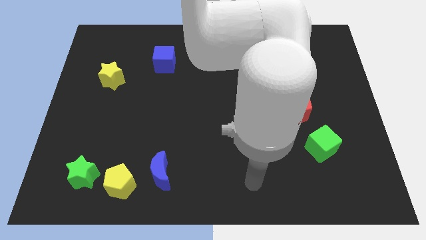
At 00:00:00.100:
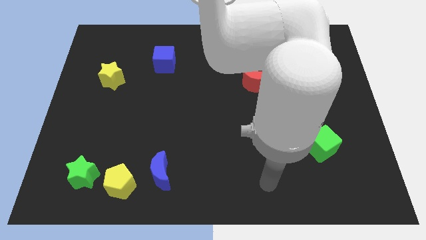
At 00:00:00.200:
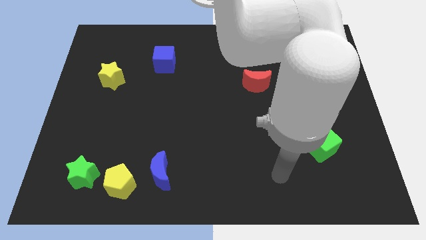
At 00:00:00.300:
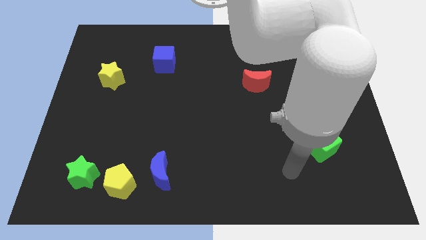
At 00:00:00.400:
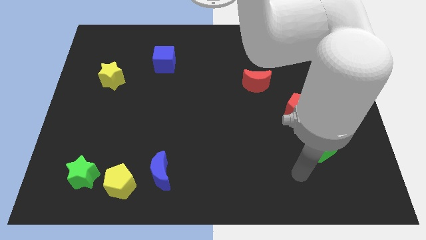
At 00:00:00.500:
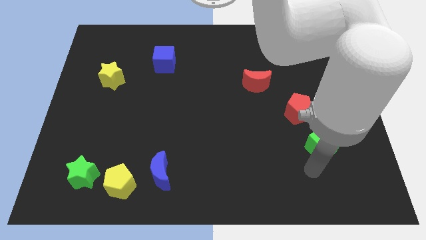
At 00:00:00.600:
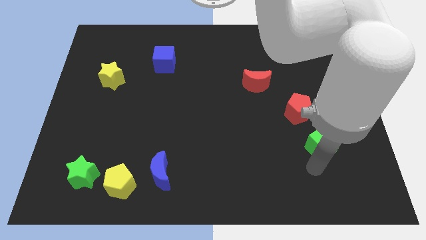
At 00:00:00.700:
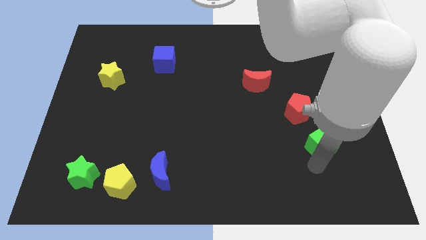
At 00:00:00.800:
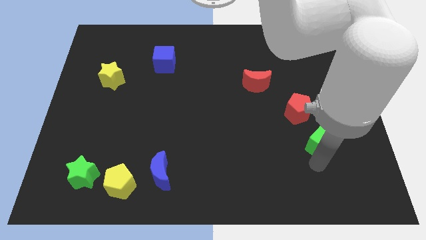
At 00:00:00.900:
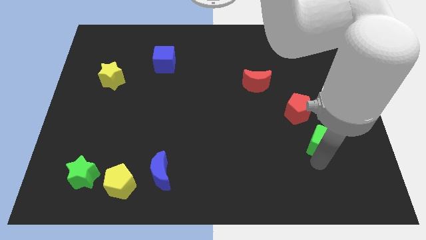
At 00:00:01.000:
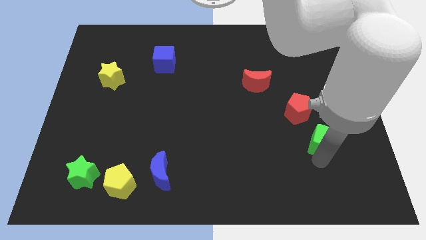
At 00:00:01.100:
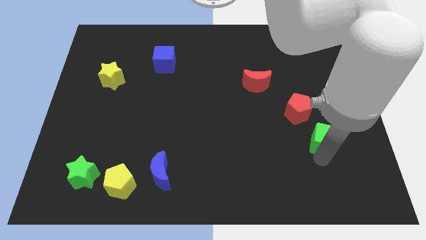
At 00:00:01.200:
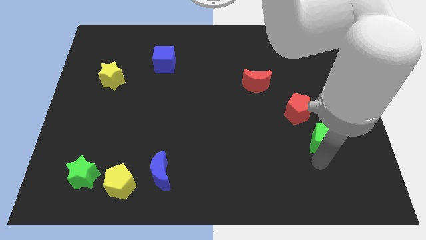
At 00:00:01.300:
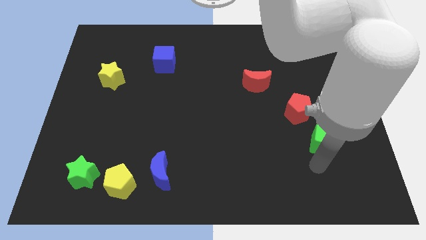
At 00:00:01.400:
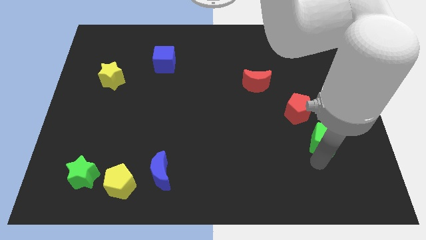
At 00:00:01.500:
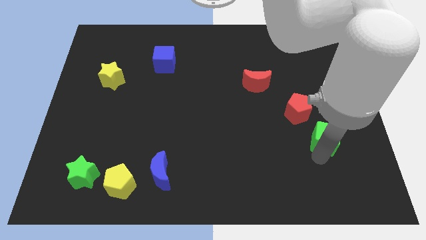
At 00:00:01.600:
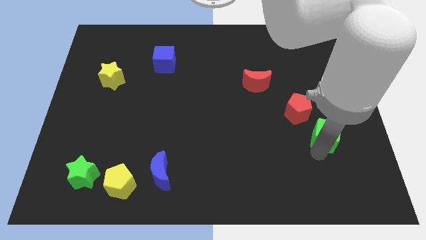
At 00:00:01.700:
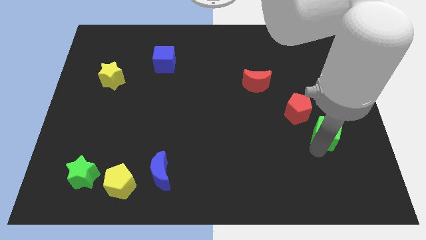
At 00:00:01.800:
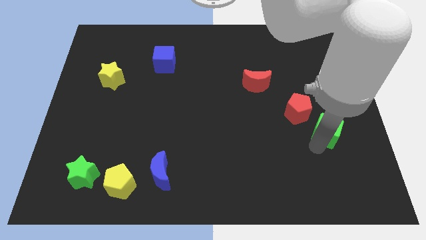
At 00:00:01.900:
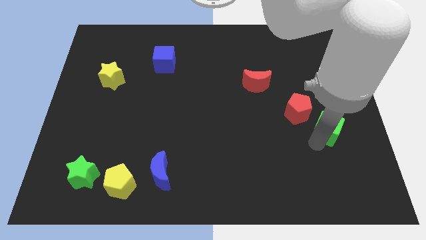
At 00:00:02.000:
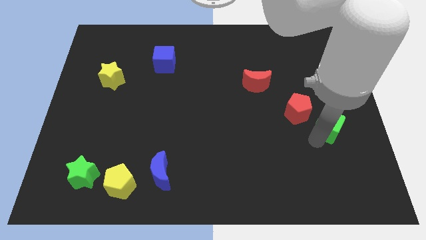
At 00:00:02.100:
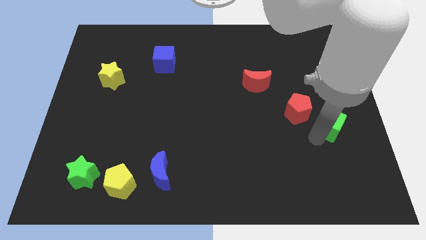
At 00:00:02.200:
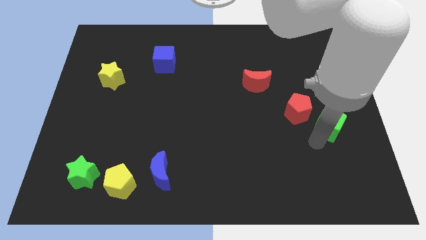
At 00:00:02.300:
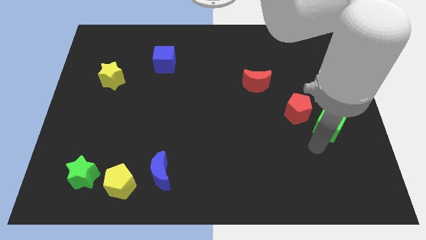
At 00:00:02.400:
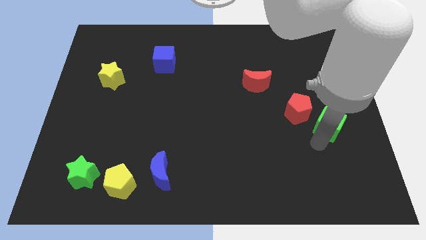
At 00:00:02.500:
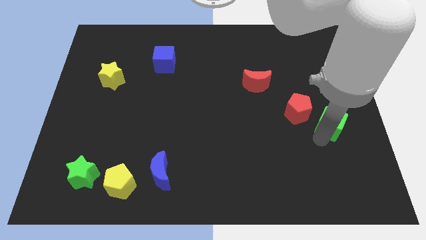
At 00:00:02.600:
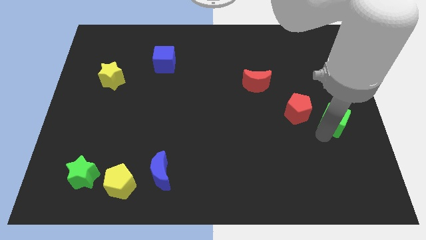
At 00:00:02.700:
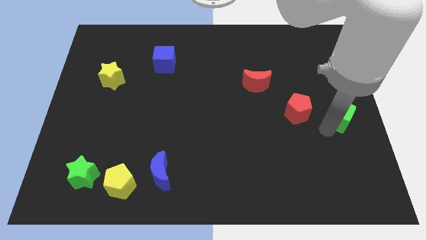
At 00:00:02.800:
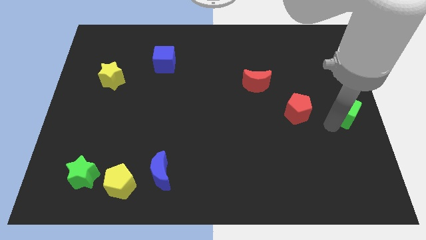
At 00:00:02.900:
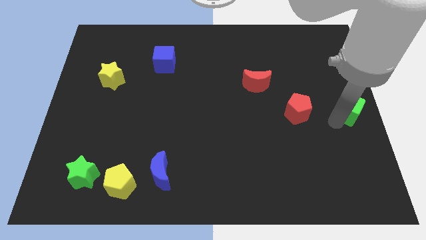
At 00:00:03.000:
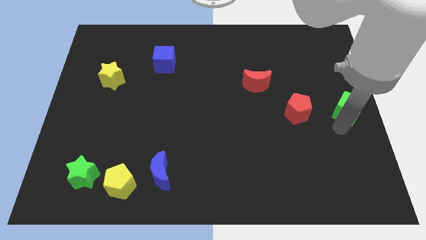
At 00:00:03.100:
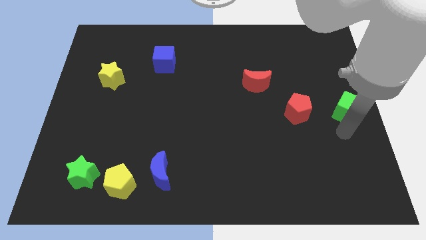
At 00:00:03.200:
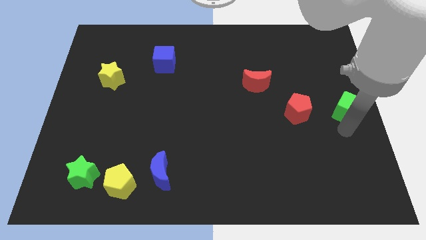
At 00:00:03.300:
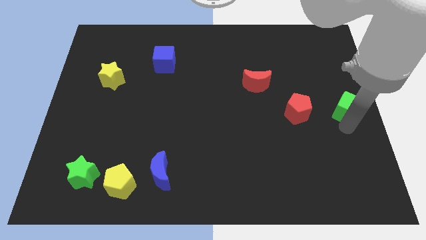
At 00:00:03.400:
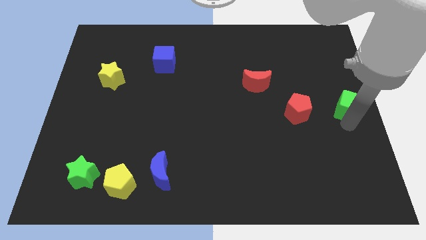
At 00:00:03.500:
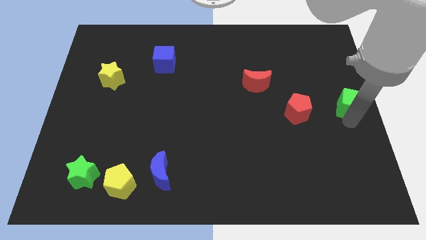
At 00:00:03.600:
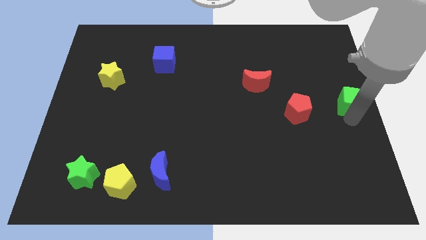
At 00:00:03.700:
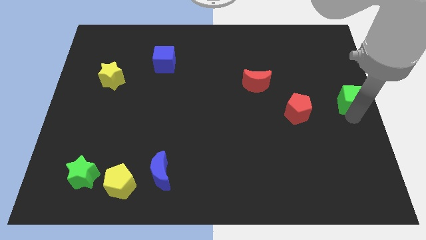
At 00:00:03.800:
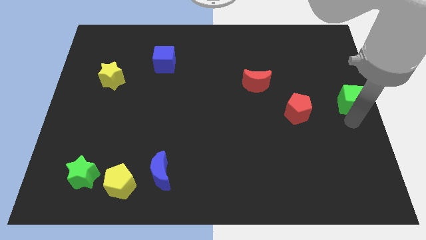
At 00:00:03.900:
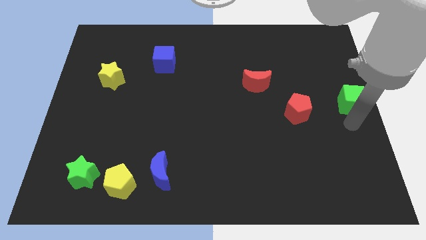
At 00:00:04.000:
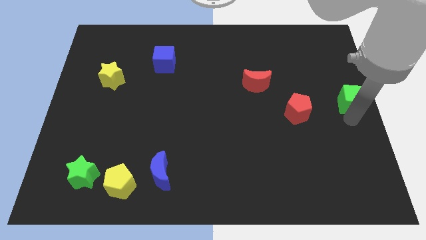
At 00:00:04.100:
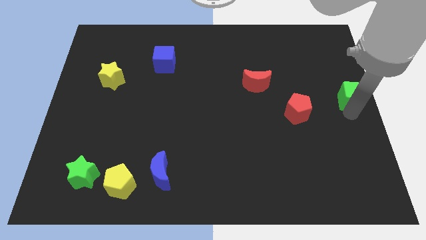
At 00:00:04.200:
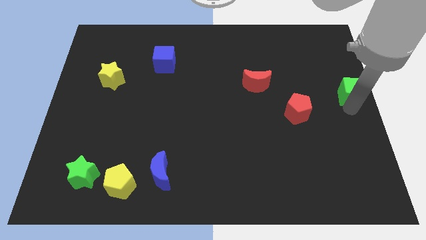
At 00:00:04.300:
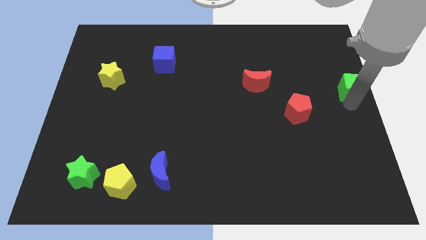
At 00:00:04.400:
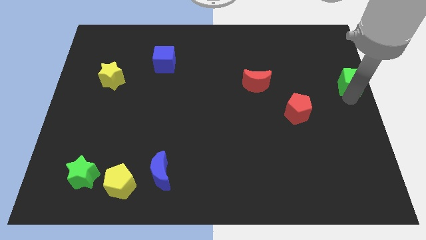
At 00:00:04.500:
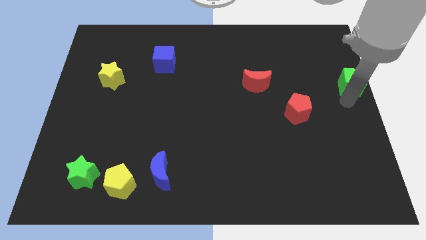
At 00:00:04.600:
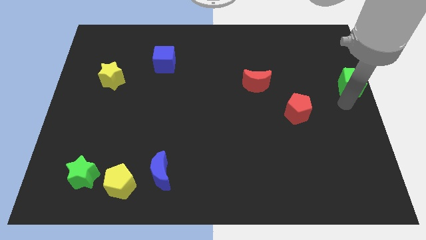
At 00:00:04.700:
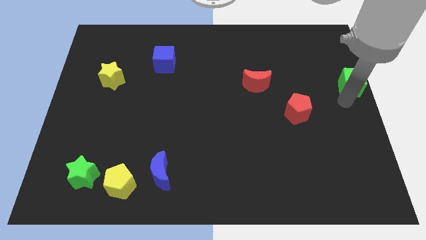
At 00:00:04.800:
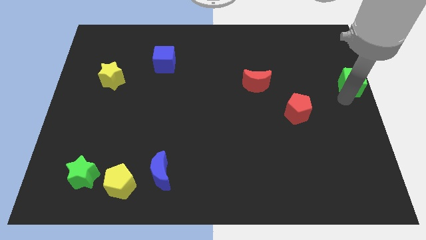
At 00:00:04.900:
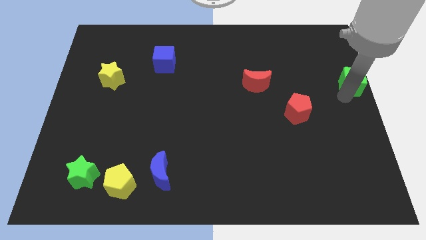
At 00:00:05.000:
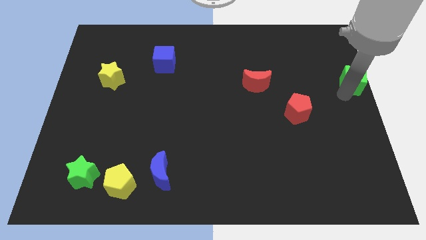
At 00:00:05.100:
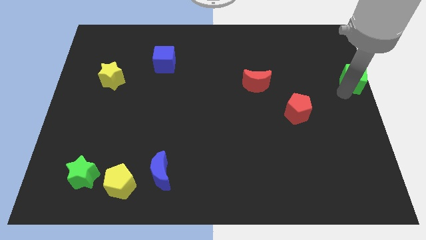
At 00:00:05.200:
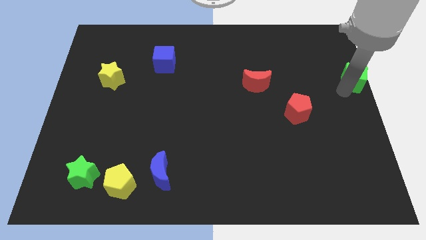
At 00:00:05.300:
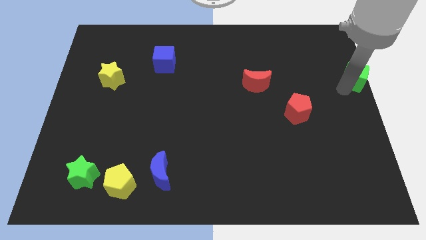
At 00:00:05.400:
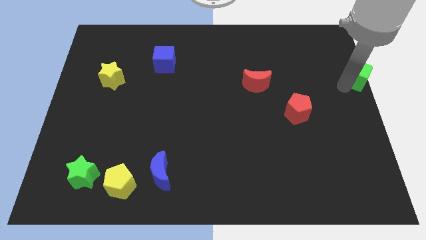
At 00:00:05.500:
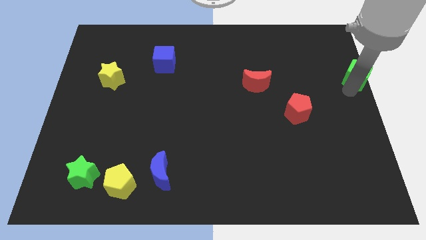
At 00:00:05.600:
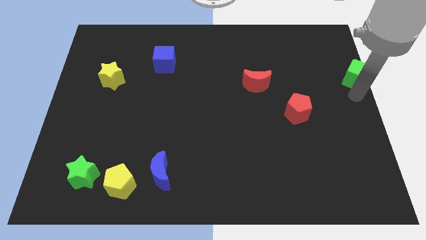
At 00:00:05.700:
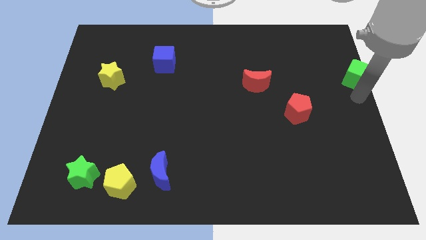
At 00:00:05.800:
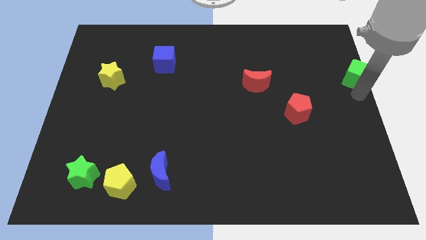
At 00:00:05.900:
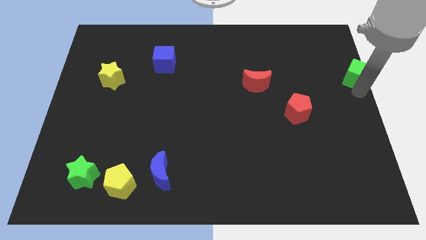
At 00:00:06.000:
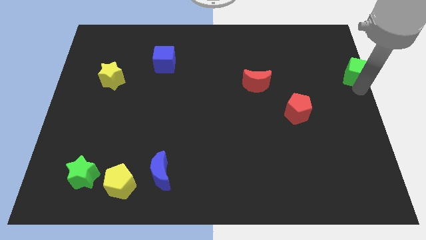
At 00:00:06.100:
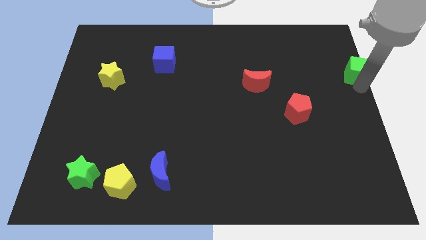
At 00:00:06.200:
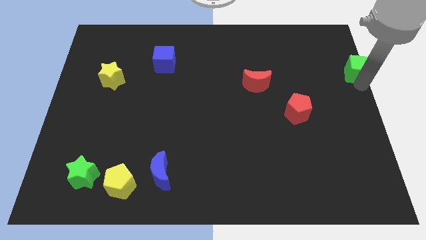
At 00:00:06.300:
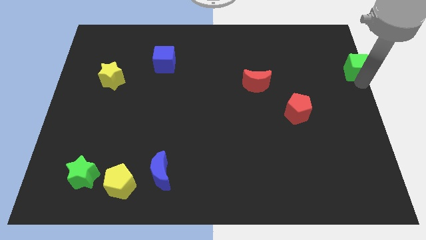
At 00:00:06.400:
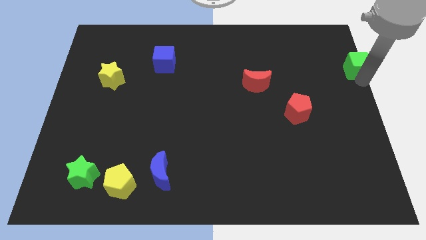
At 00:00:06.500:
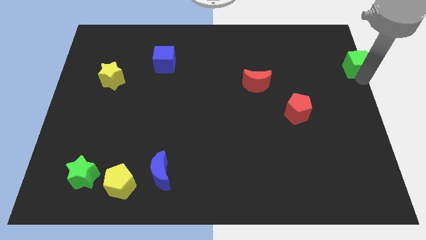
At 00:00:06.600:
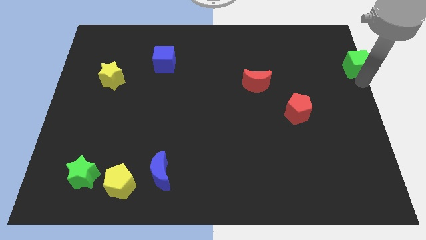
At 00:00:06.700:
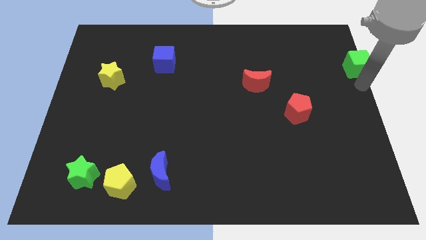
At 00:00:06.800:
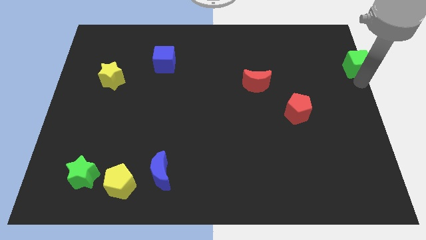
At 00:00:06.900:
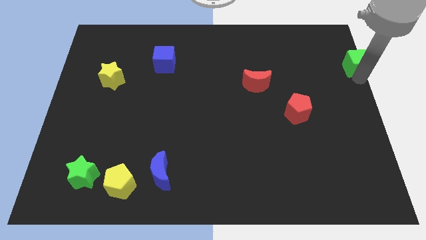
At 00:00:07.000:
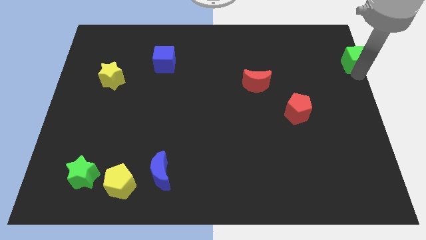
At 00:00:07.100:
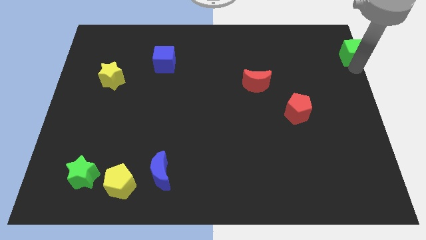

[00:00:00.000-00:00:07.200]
push the green cube to the top right corner
